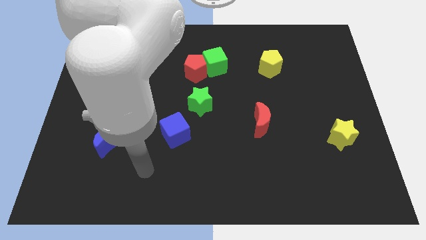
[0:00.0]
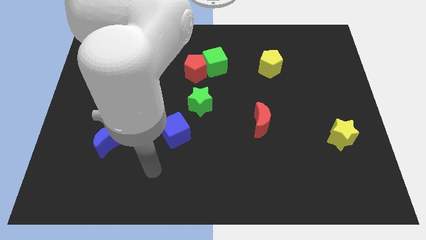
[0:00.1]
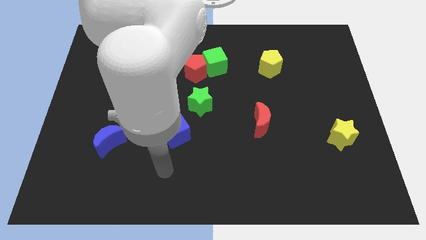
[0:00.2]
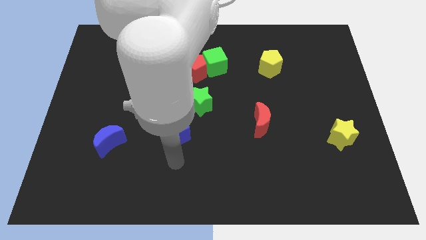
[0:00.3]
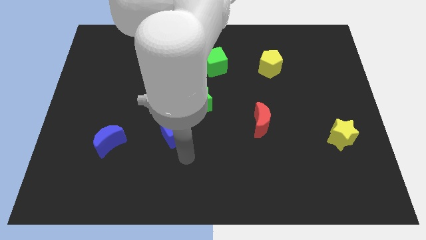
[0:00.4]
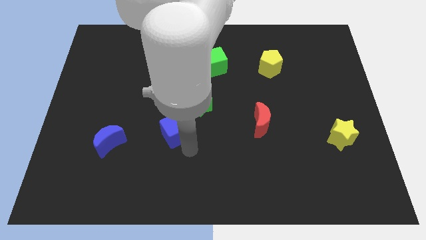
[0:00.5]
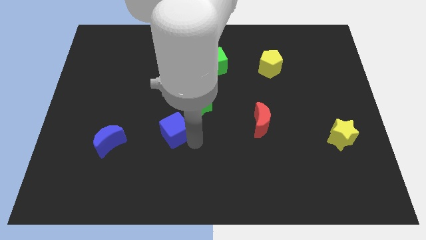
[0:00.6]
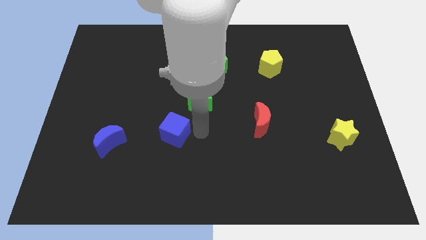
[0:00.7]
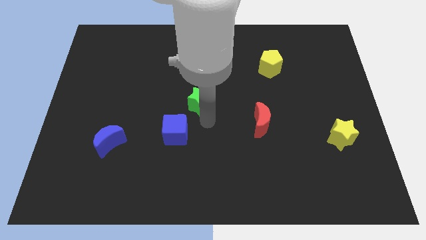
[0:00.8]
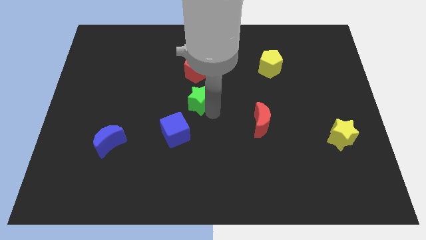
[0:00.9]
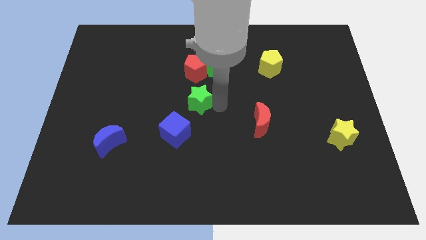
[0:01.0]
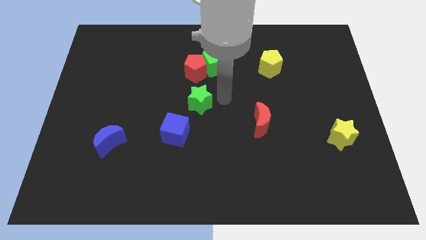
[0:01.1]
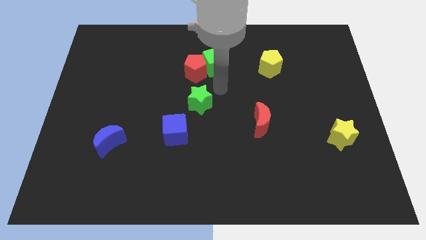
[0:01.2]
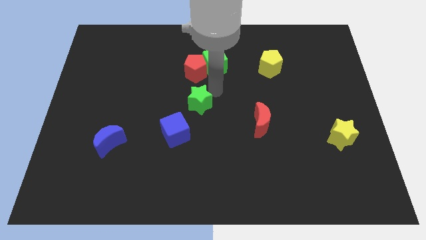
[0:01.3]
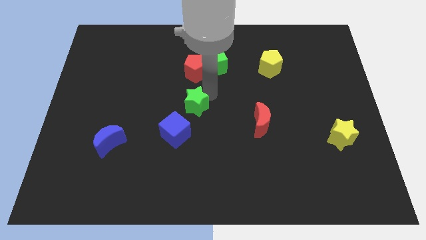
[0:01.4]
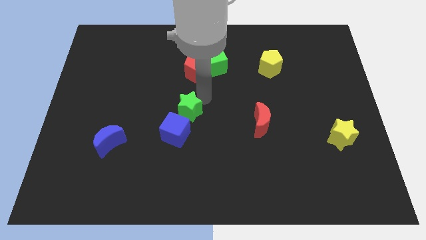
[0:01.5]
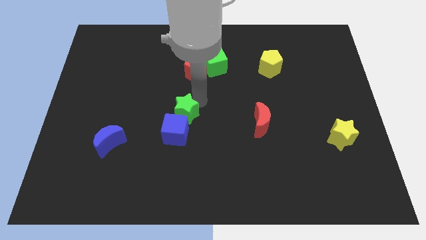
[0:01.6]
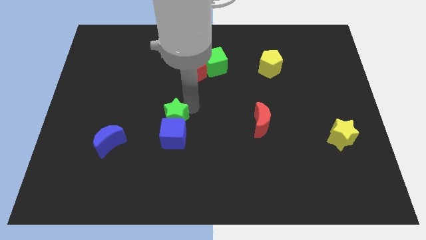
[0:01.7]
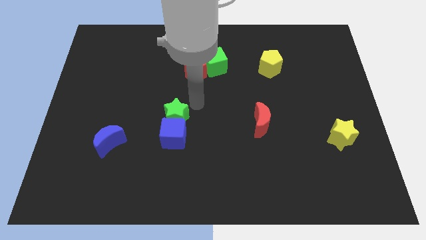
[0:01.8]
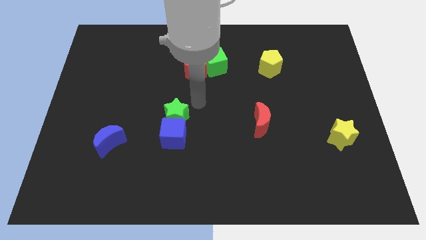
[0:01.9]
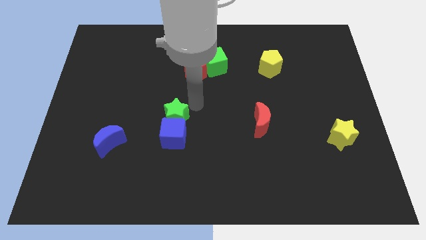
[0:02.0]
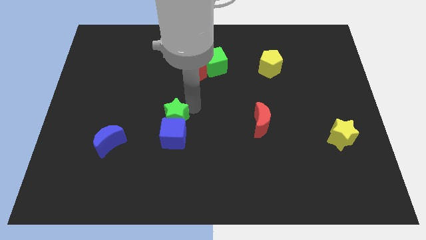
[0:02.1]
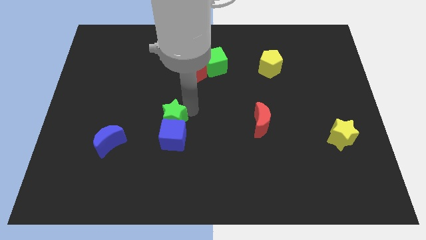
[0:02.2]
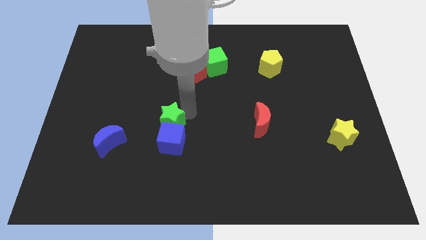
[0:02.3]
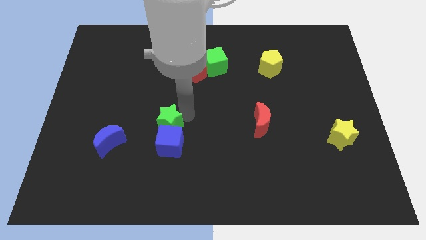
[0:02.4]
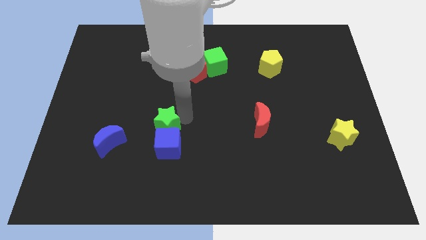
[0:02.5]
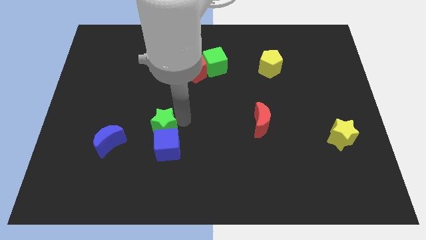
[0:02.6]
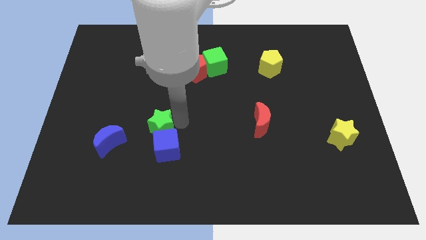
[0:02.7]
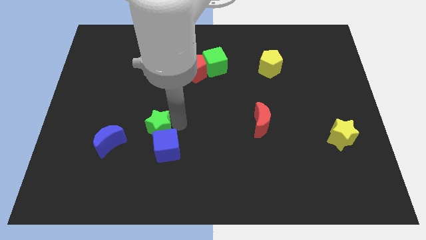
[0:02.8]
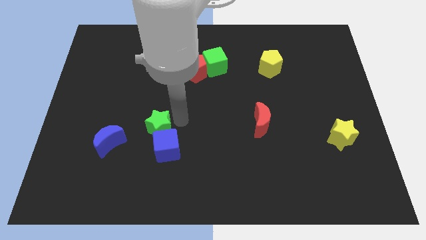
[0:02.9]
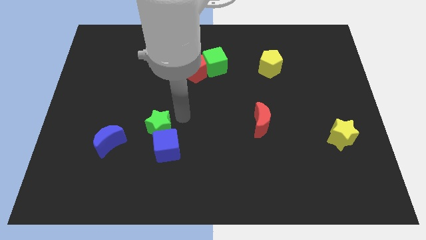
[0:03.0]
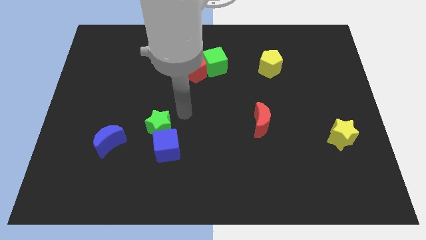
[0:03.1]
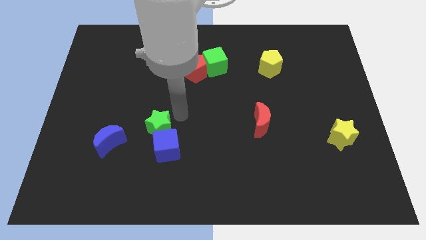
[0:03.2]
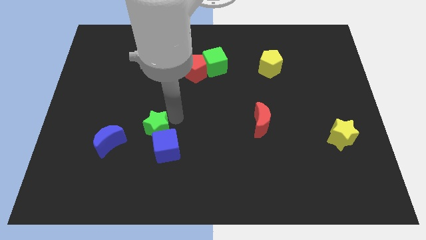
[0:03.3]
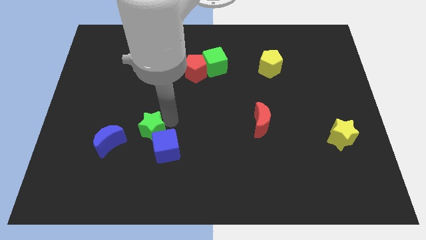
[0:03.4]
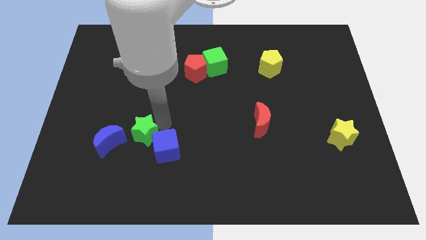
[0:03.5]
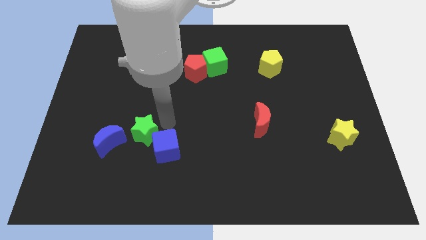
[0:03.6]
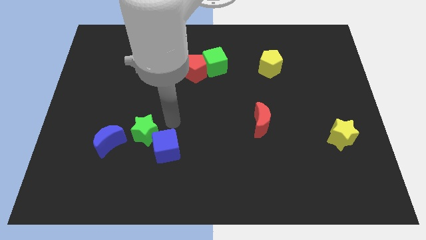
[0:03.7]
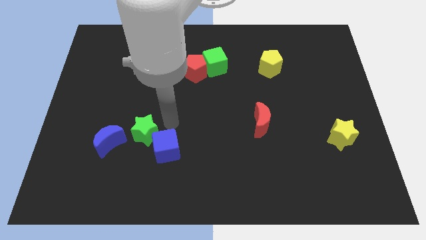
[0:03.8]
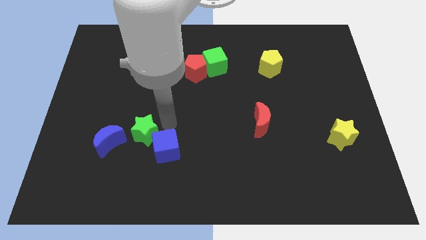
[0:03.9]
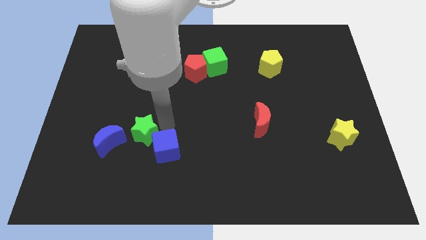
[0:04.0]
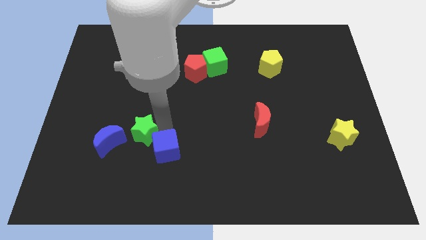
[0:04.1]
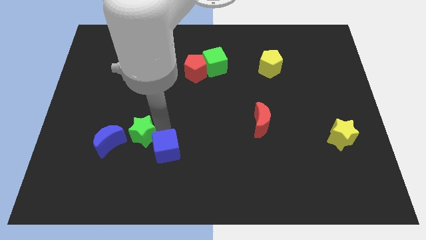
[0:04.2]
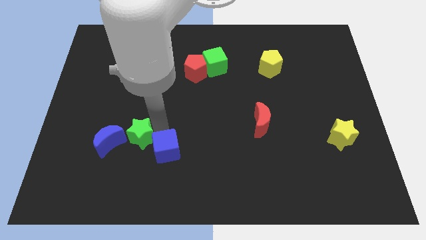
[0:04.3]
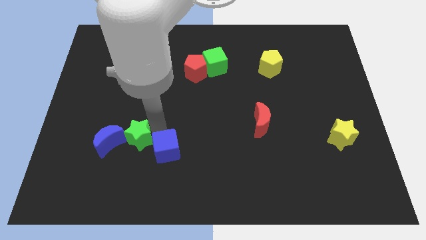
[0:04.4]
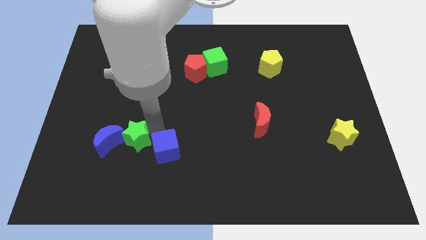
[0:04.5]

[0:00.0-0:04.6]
push the green star to the blue moon

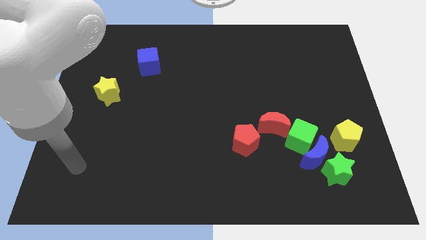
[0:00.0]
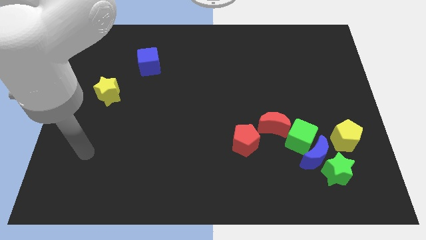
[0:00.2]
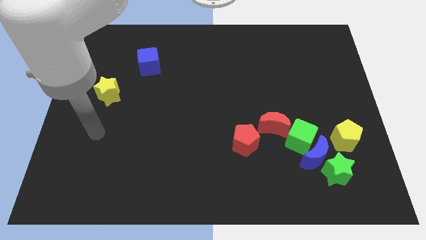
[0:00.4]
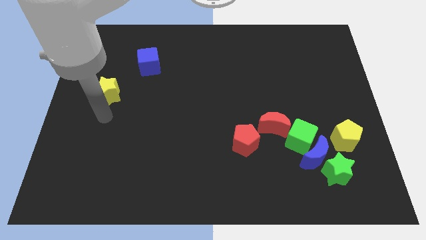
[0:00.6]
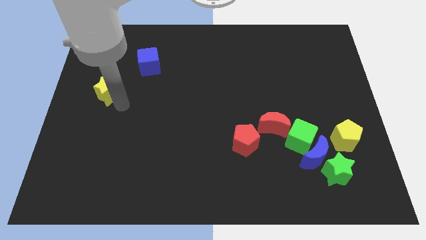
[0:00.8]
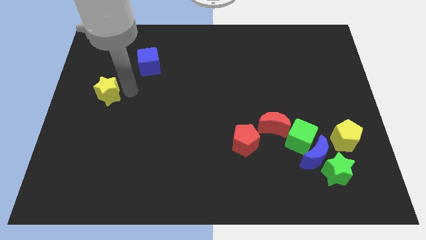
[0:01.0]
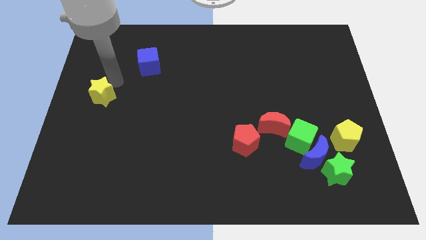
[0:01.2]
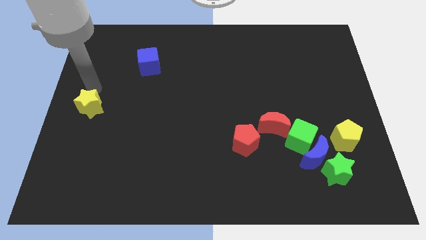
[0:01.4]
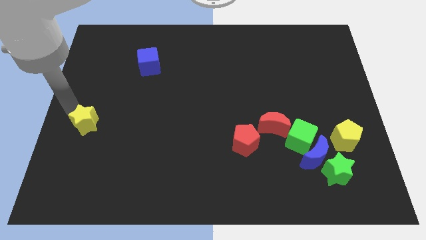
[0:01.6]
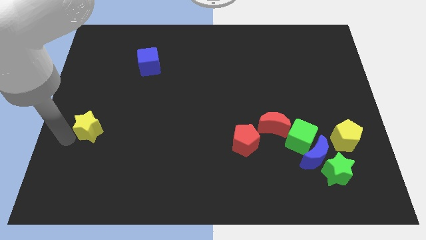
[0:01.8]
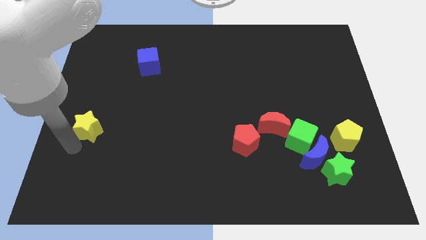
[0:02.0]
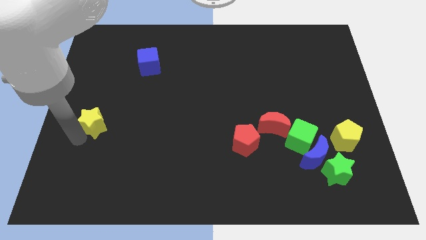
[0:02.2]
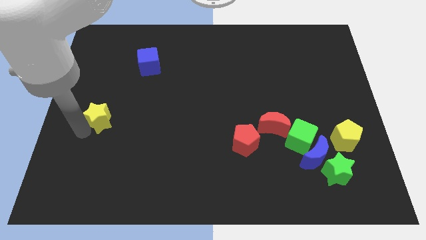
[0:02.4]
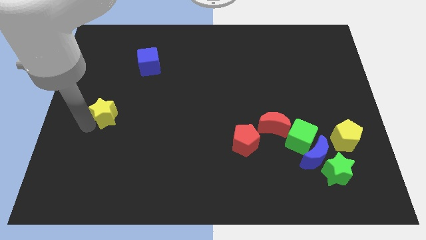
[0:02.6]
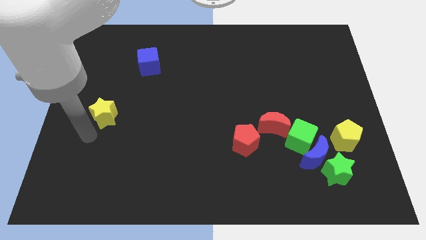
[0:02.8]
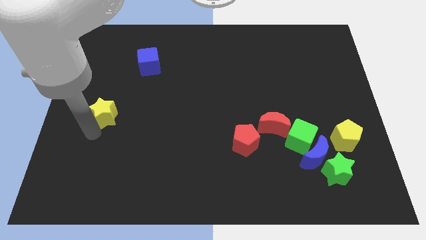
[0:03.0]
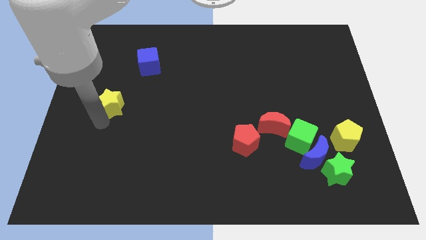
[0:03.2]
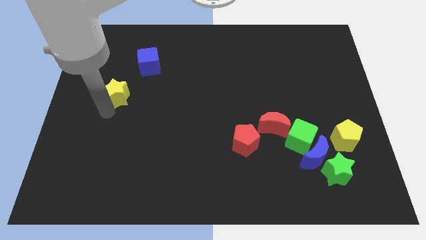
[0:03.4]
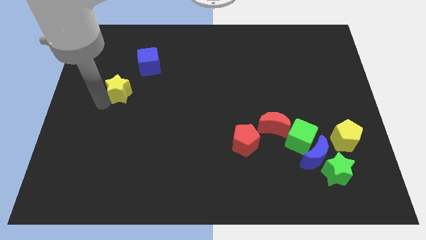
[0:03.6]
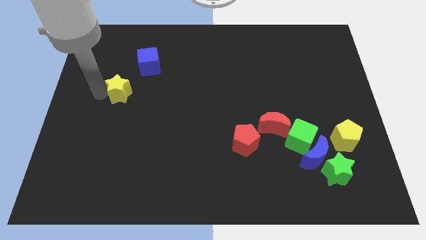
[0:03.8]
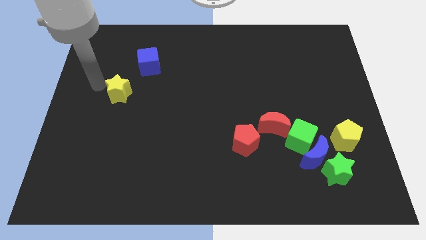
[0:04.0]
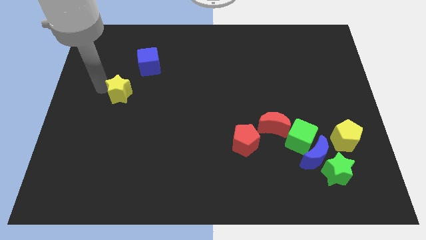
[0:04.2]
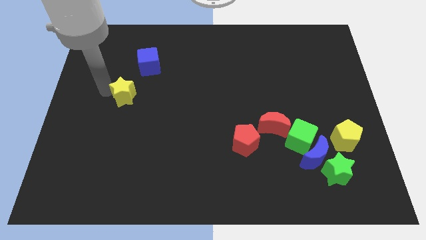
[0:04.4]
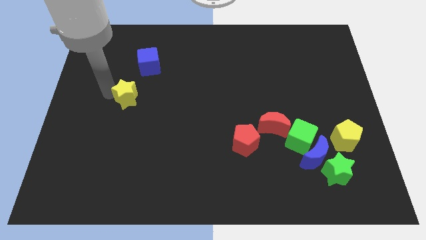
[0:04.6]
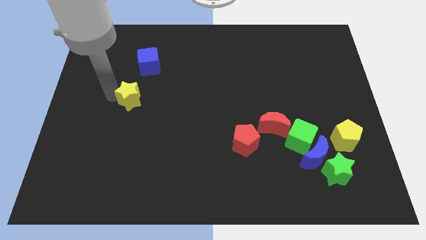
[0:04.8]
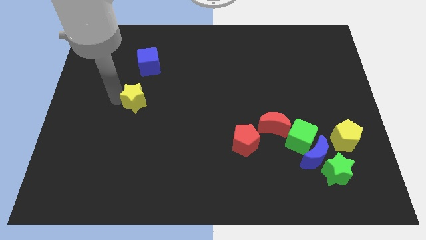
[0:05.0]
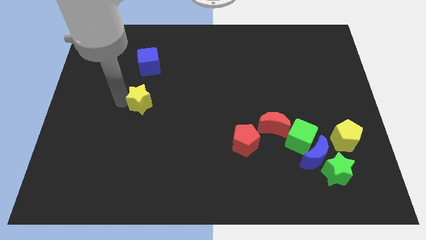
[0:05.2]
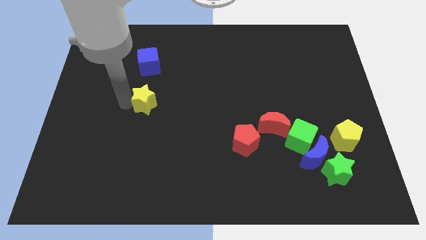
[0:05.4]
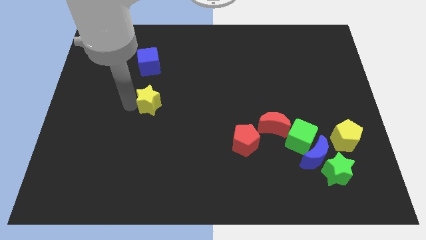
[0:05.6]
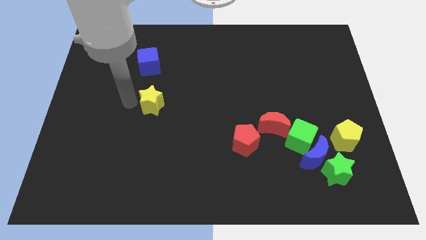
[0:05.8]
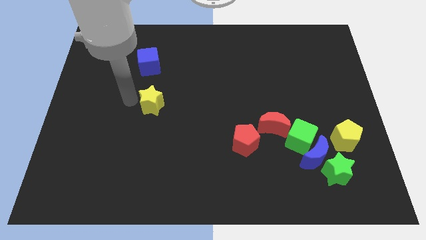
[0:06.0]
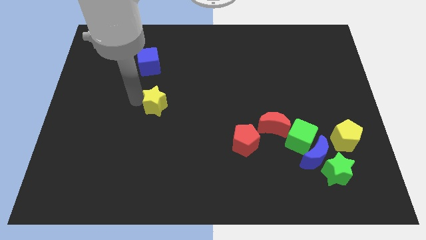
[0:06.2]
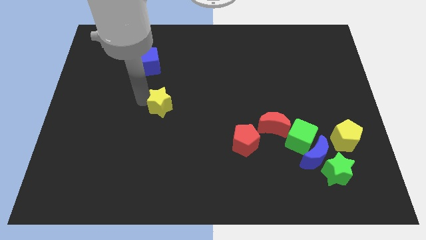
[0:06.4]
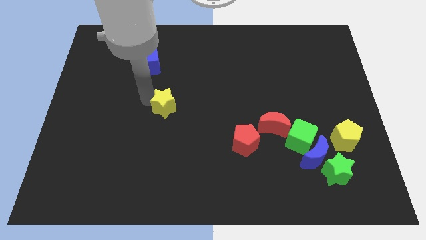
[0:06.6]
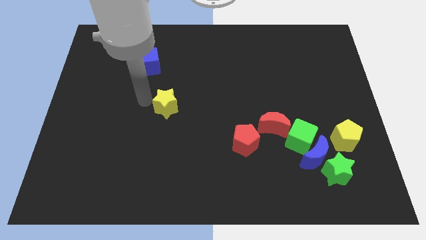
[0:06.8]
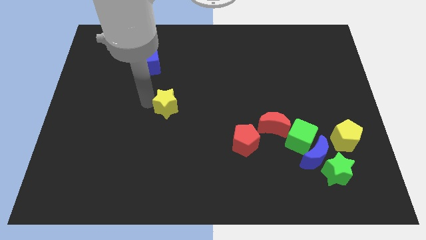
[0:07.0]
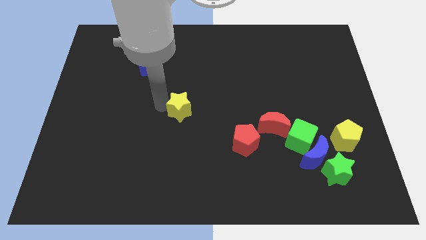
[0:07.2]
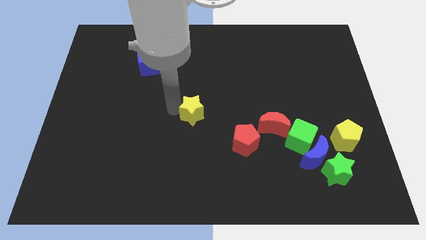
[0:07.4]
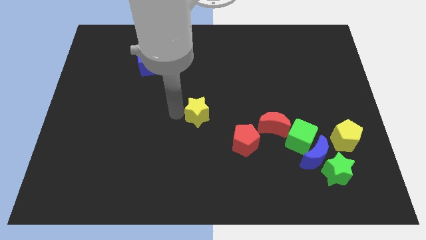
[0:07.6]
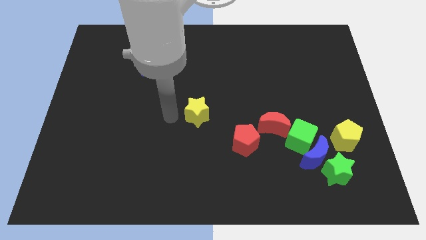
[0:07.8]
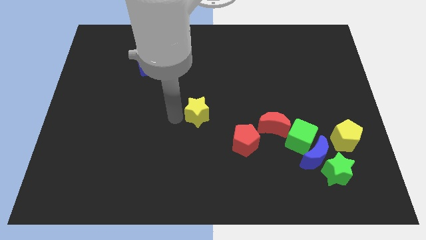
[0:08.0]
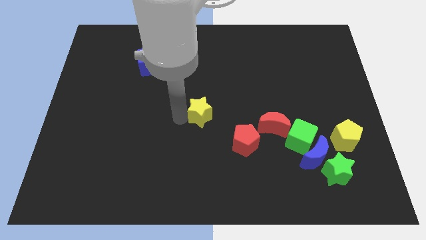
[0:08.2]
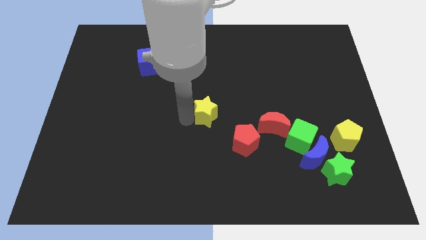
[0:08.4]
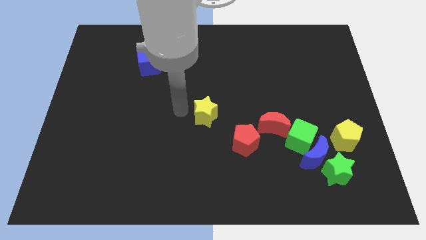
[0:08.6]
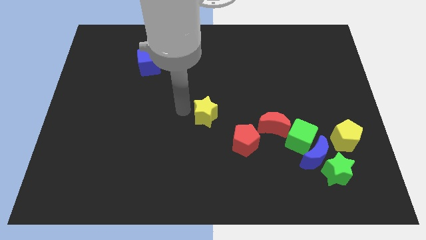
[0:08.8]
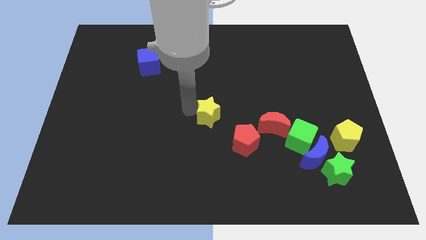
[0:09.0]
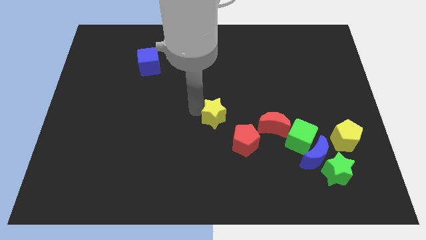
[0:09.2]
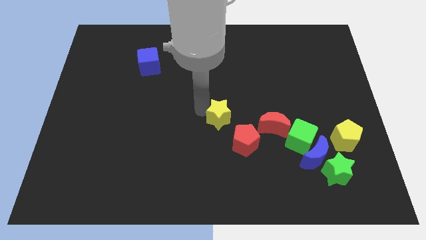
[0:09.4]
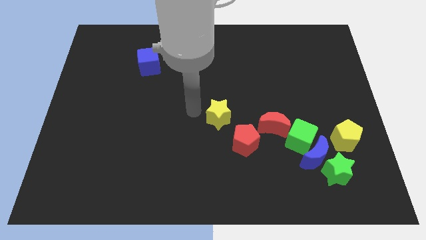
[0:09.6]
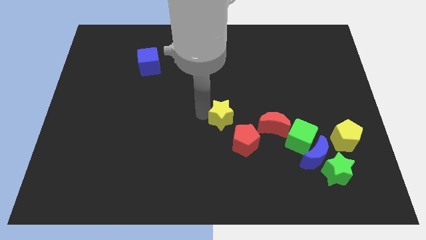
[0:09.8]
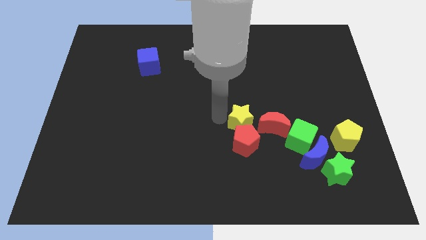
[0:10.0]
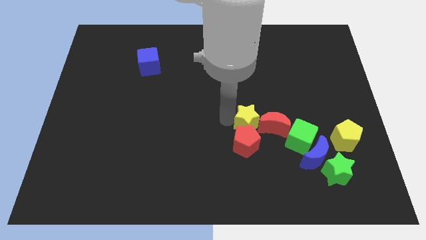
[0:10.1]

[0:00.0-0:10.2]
push the yellow star next to the red moon
